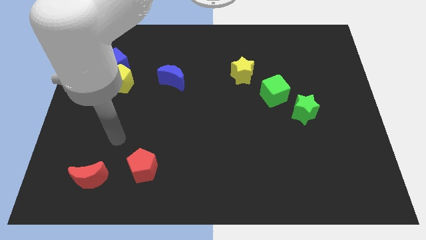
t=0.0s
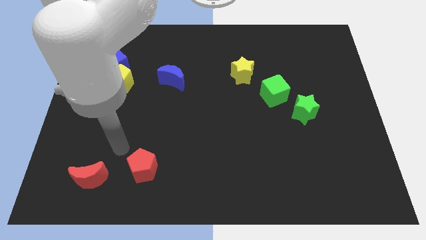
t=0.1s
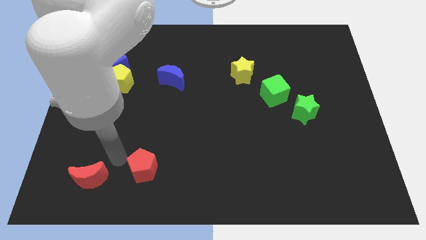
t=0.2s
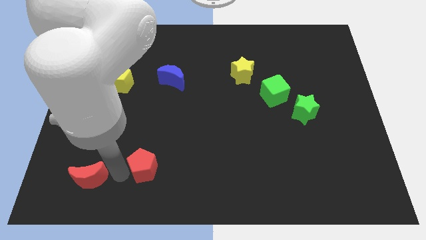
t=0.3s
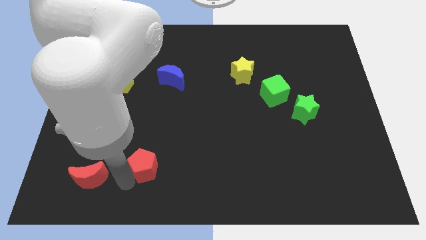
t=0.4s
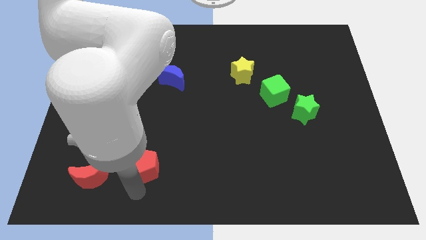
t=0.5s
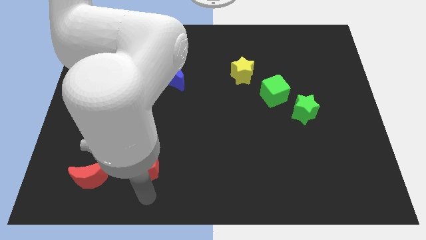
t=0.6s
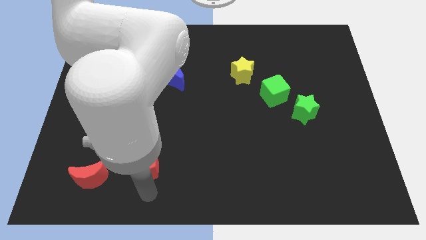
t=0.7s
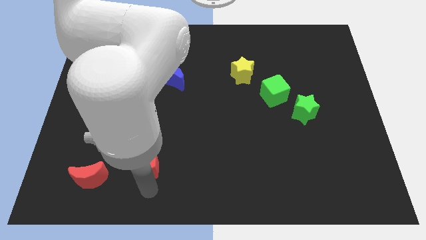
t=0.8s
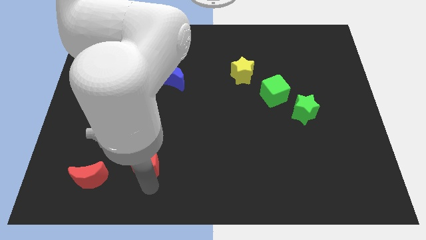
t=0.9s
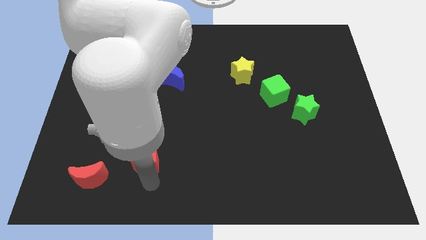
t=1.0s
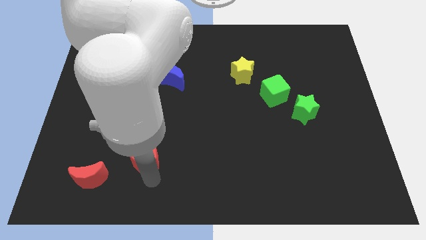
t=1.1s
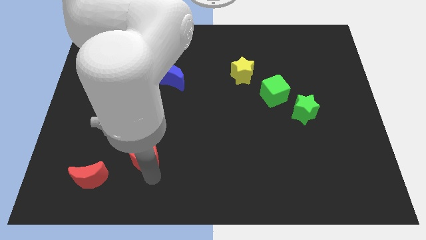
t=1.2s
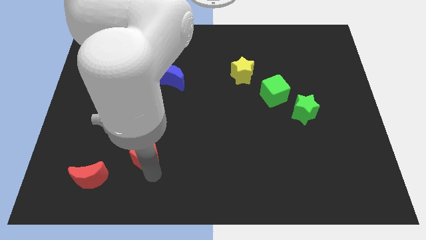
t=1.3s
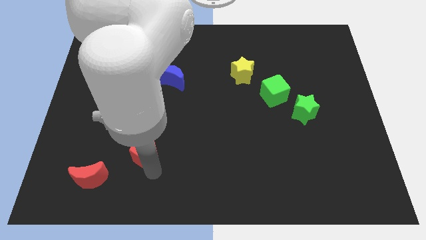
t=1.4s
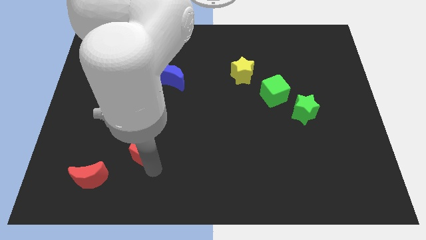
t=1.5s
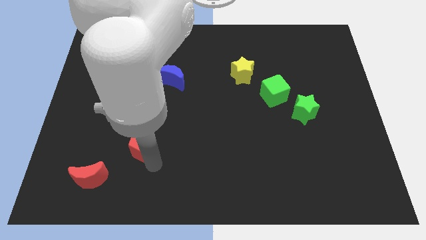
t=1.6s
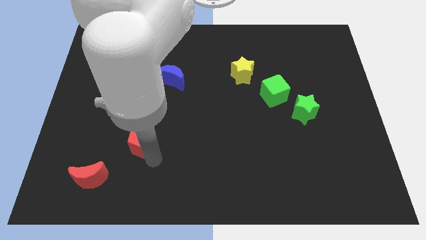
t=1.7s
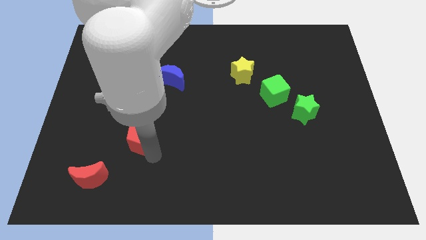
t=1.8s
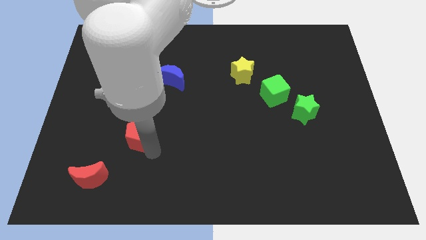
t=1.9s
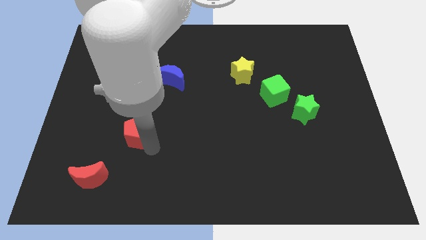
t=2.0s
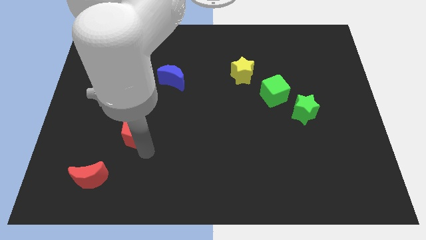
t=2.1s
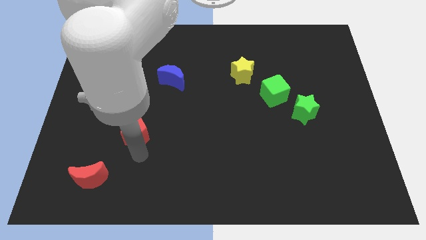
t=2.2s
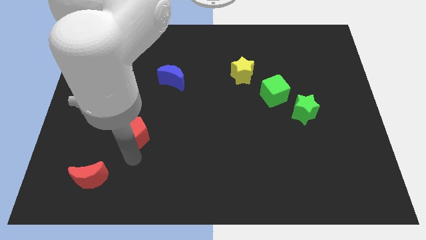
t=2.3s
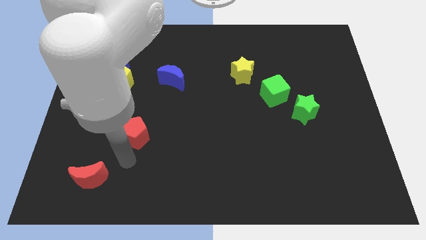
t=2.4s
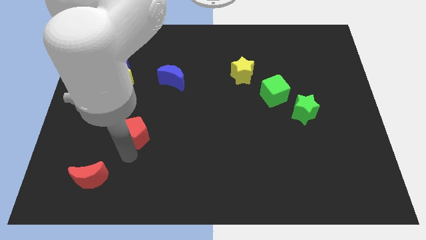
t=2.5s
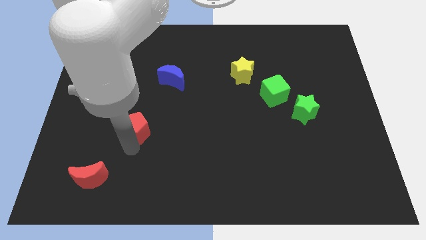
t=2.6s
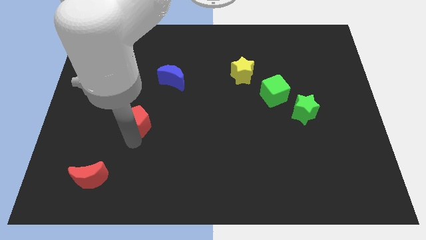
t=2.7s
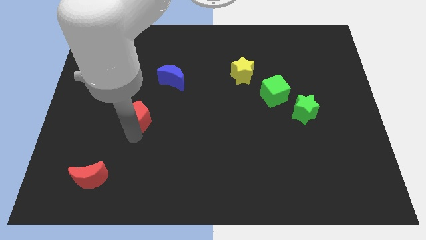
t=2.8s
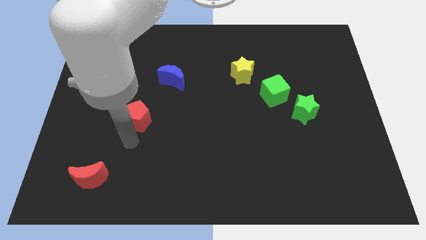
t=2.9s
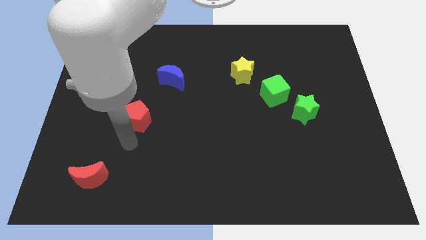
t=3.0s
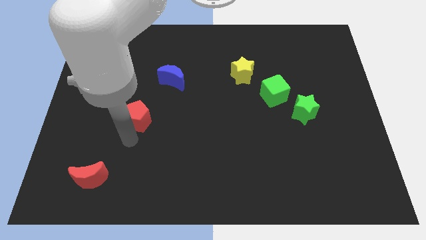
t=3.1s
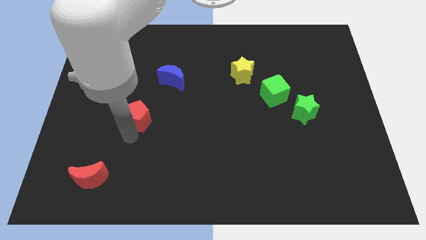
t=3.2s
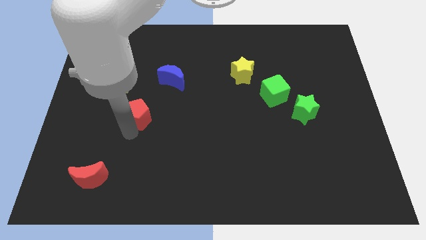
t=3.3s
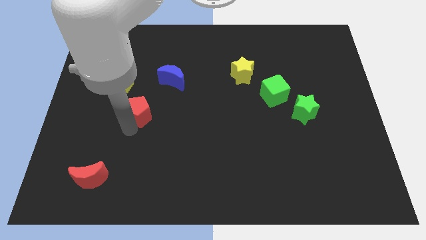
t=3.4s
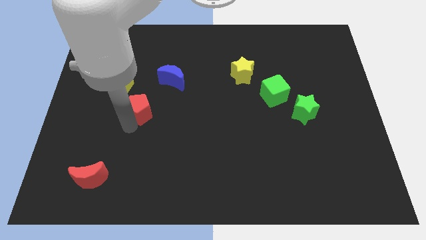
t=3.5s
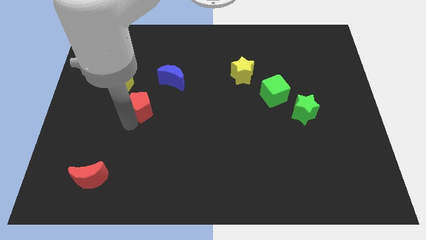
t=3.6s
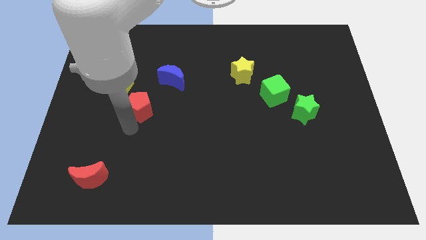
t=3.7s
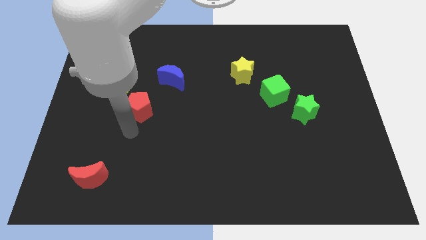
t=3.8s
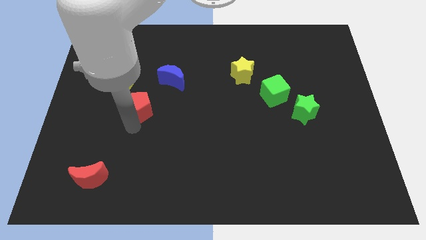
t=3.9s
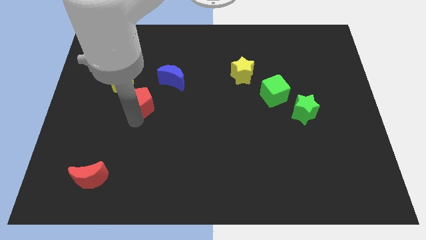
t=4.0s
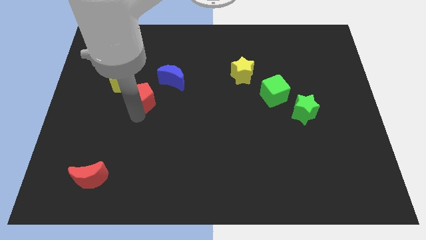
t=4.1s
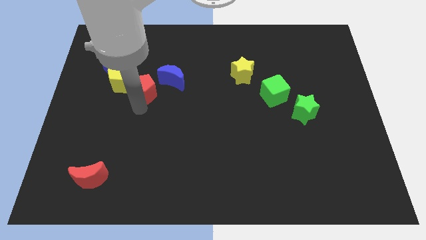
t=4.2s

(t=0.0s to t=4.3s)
slide the red pentagon up

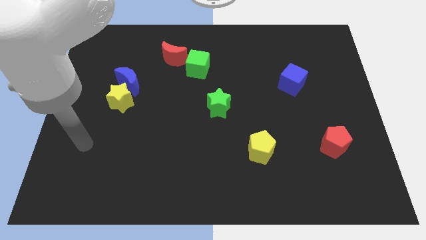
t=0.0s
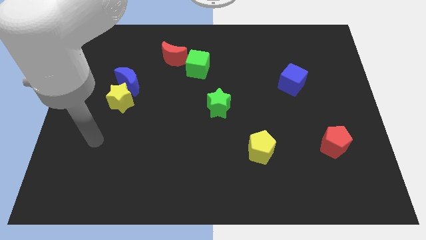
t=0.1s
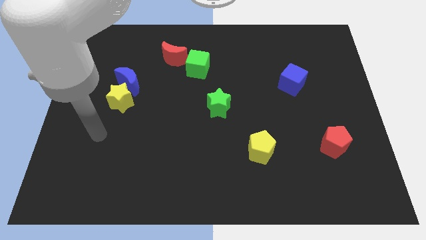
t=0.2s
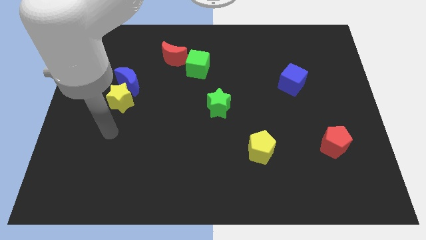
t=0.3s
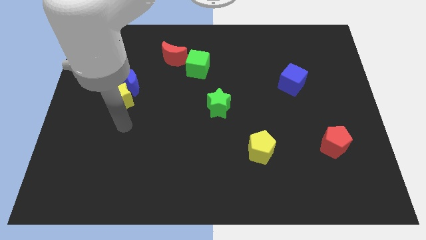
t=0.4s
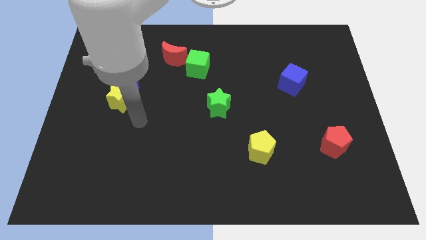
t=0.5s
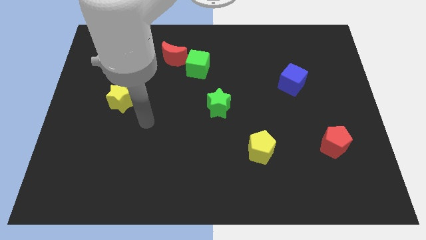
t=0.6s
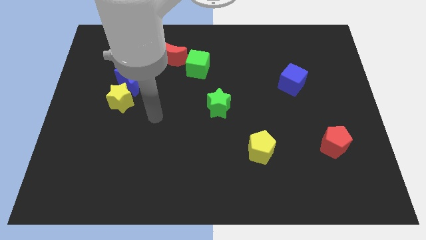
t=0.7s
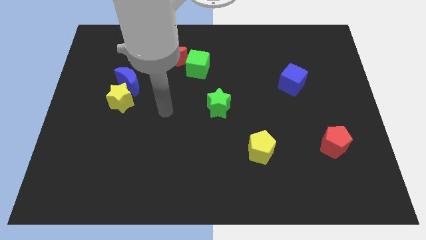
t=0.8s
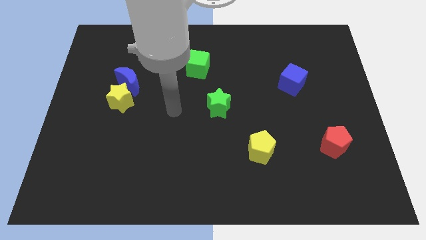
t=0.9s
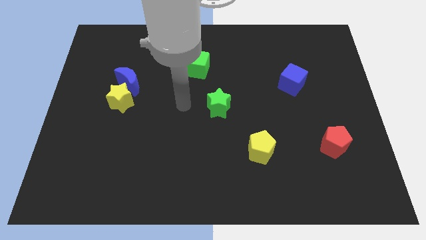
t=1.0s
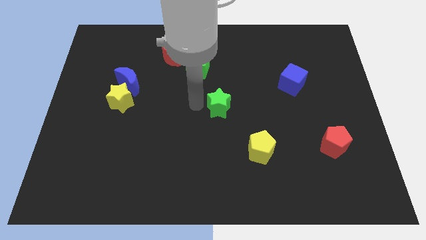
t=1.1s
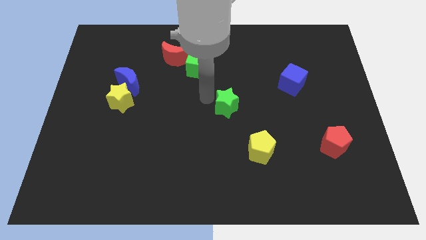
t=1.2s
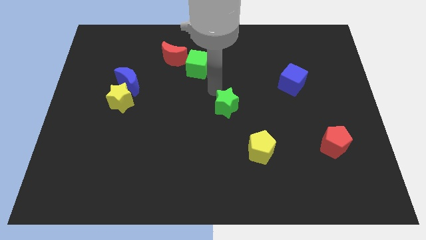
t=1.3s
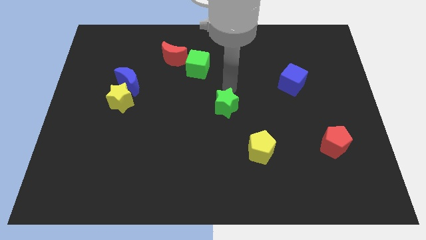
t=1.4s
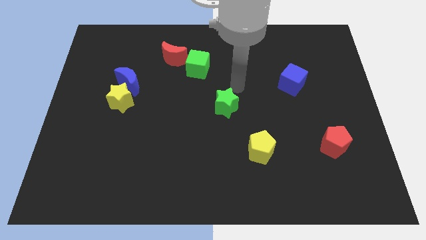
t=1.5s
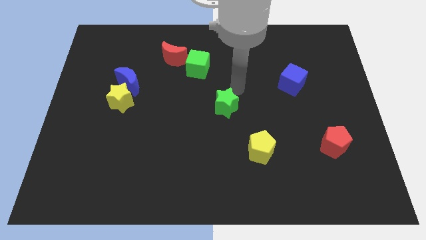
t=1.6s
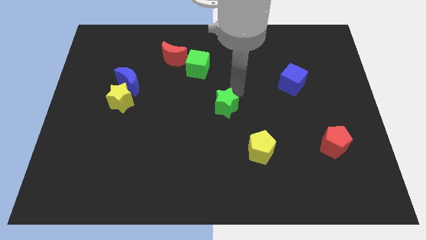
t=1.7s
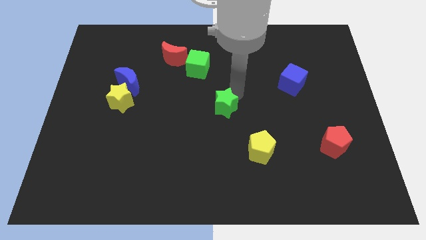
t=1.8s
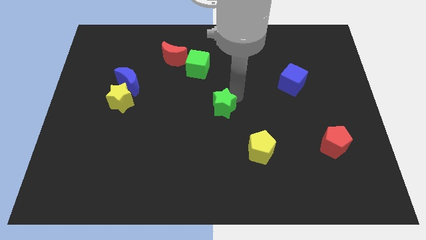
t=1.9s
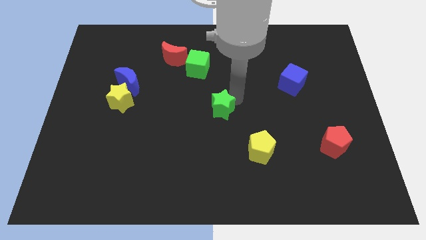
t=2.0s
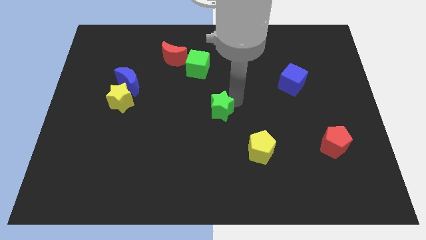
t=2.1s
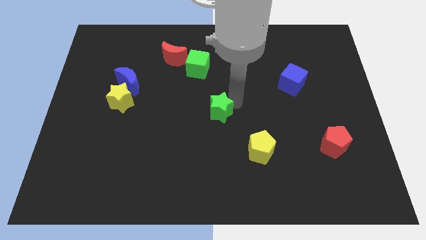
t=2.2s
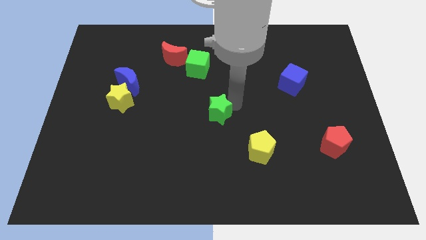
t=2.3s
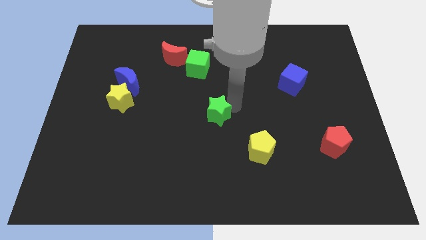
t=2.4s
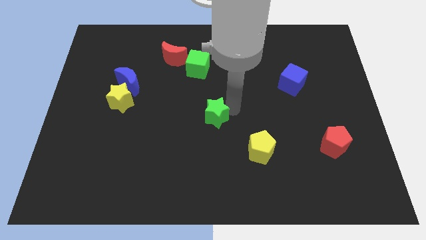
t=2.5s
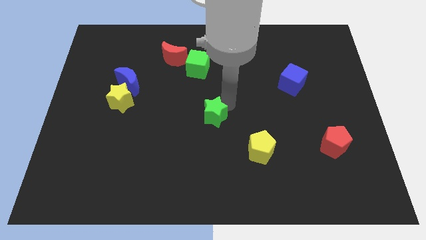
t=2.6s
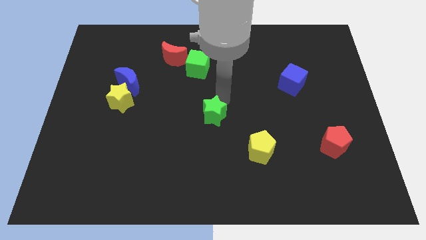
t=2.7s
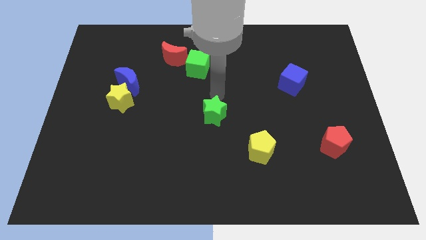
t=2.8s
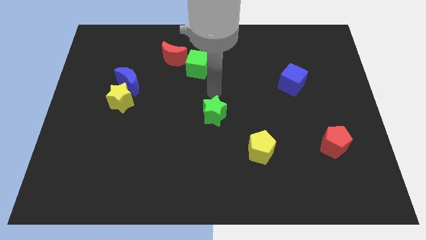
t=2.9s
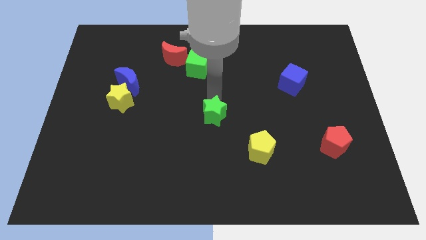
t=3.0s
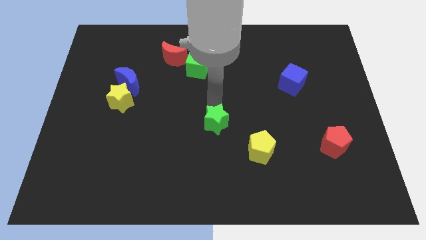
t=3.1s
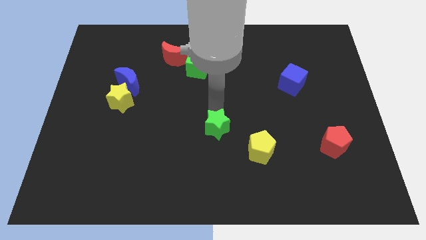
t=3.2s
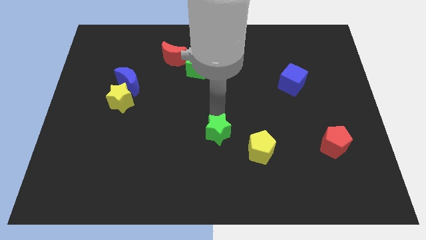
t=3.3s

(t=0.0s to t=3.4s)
slide the green star a little bit down

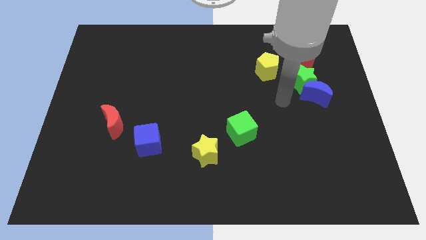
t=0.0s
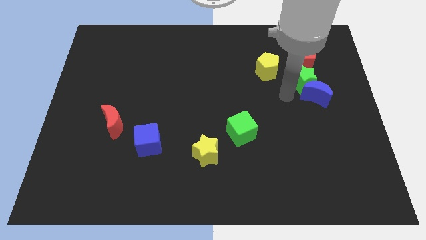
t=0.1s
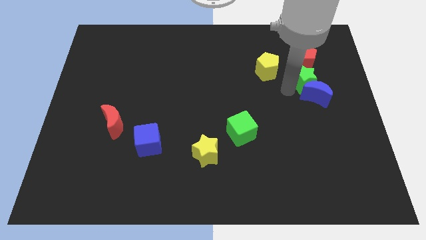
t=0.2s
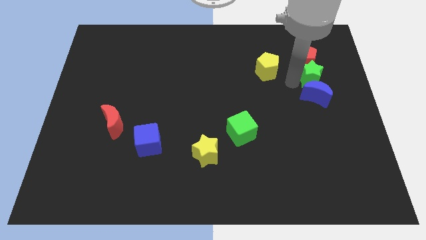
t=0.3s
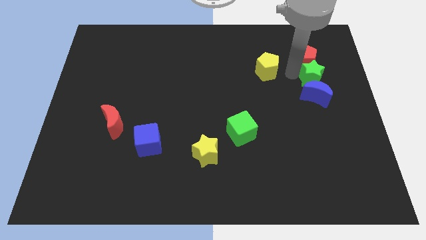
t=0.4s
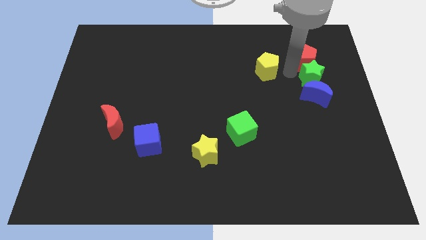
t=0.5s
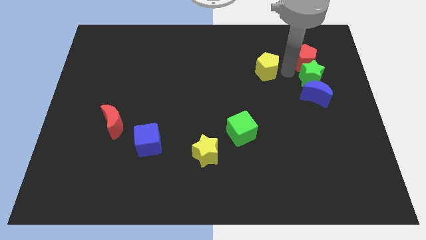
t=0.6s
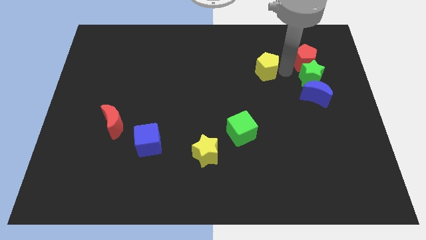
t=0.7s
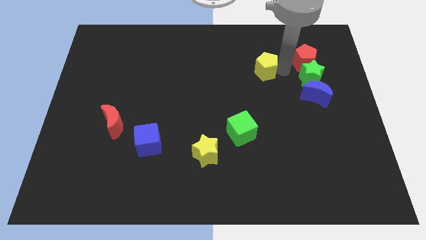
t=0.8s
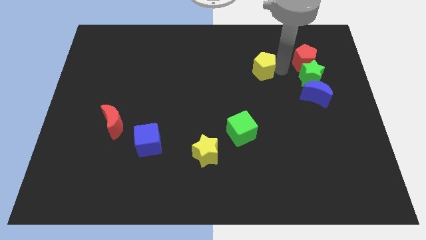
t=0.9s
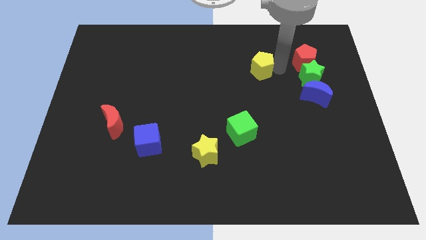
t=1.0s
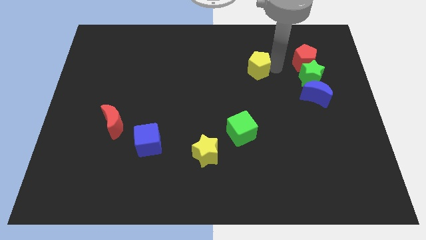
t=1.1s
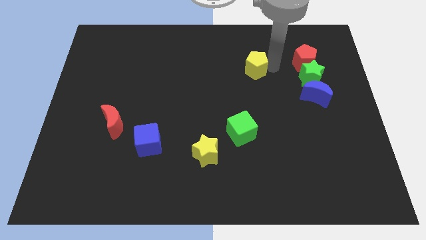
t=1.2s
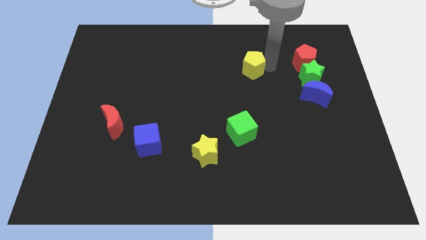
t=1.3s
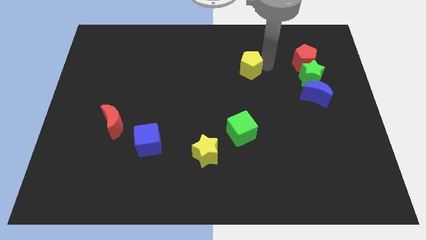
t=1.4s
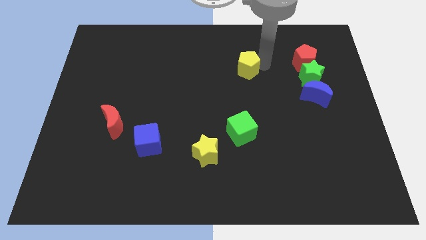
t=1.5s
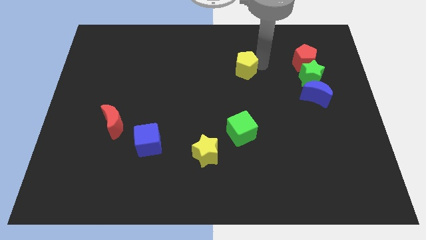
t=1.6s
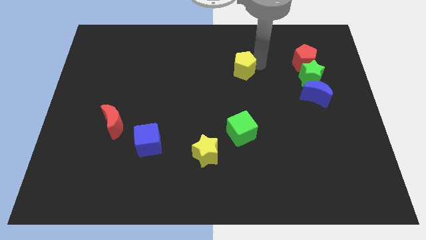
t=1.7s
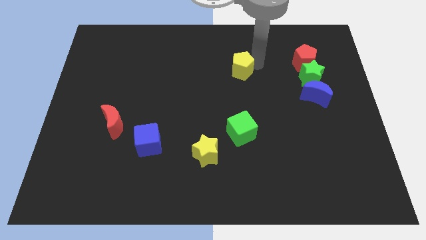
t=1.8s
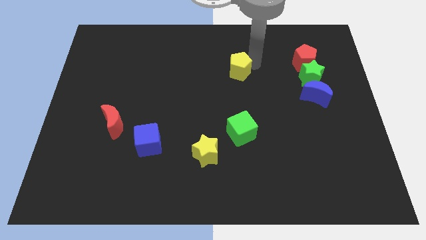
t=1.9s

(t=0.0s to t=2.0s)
move the yellow pentagon to the left a bit
